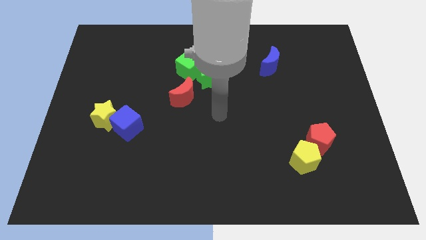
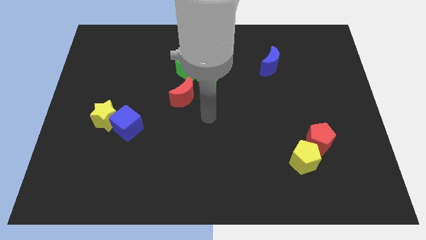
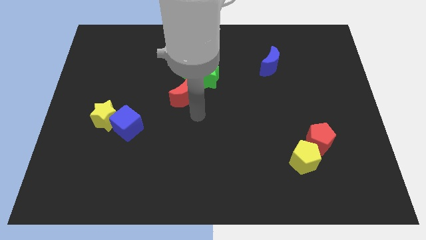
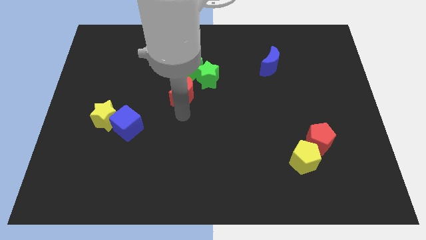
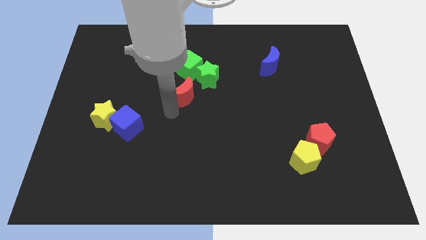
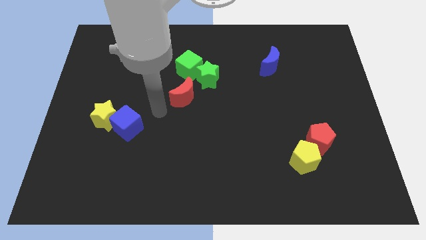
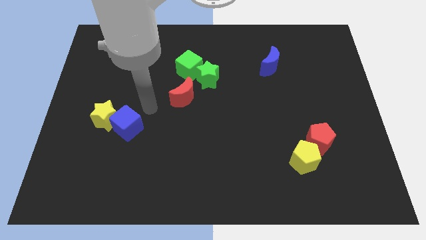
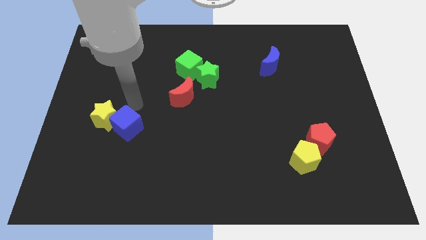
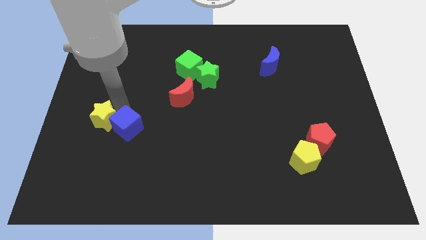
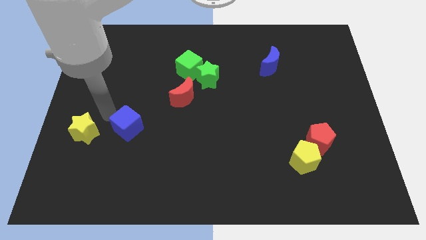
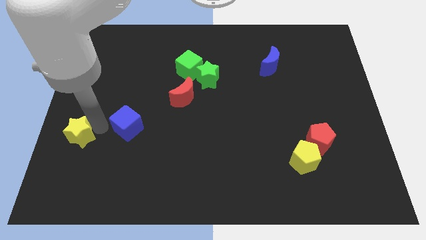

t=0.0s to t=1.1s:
move the blue cube away from the yellow star

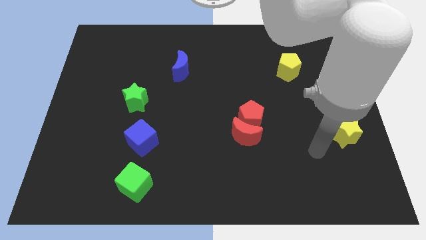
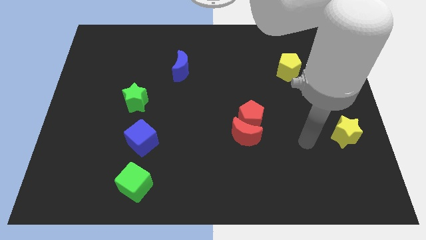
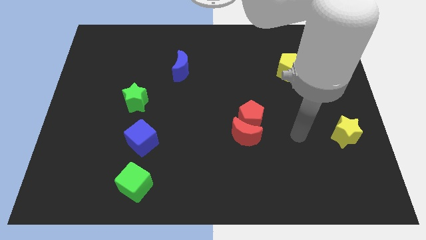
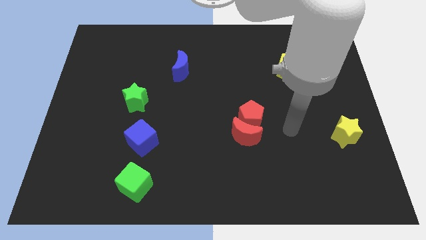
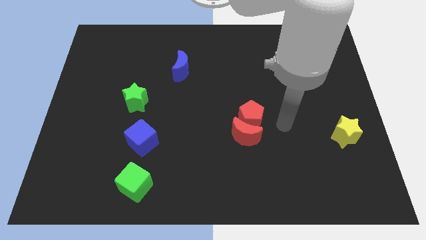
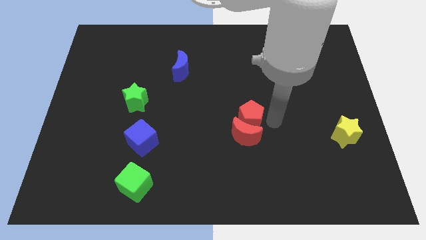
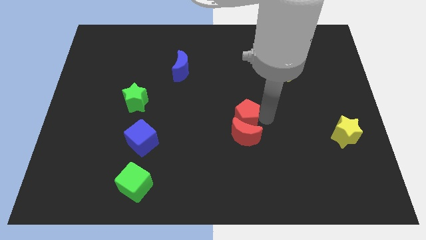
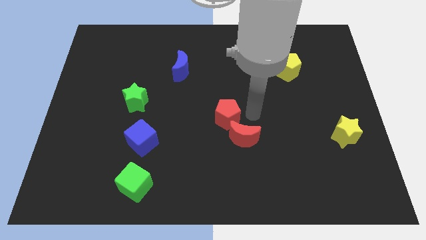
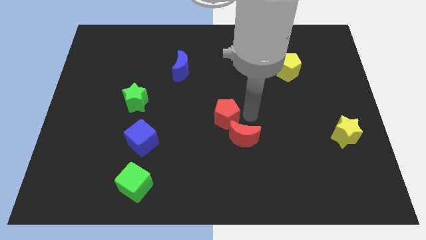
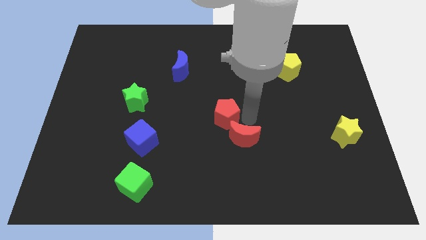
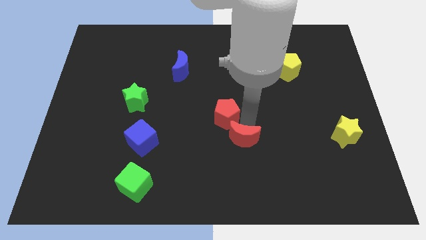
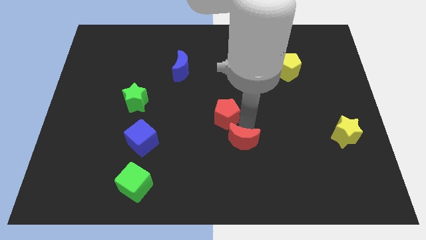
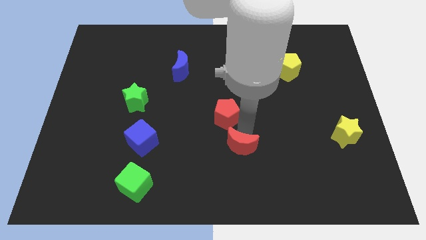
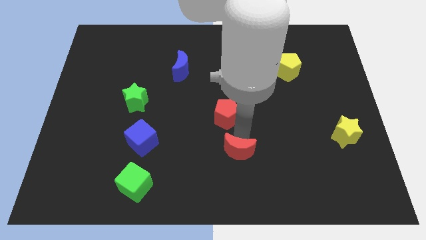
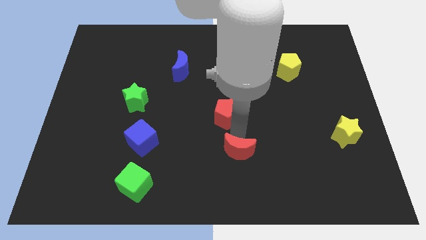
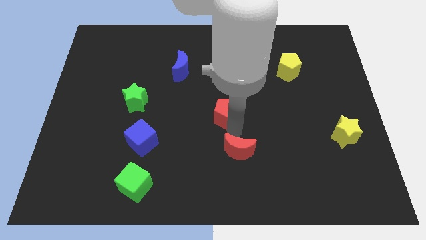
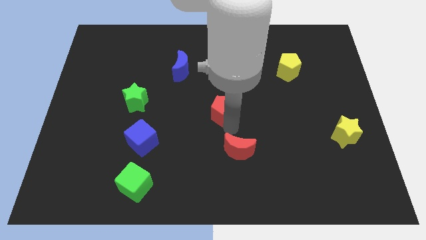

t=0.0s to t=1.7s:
move the red moon away from the red pentagon

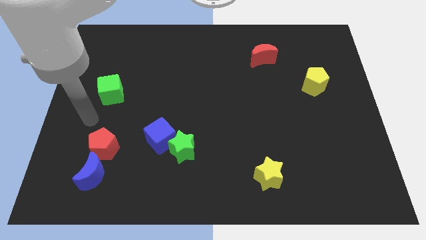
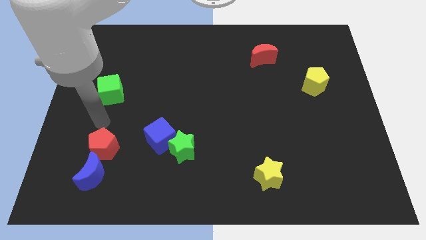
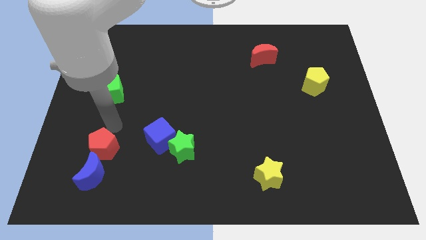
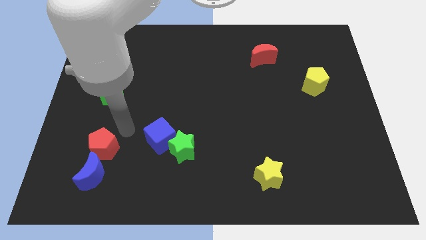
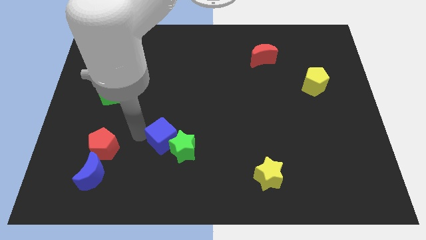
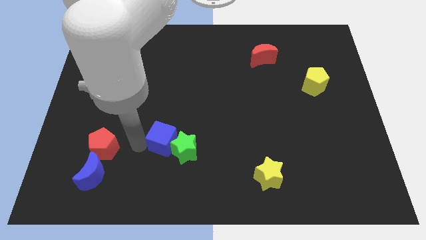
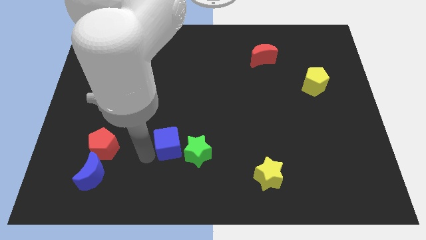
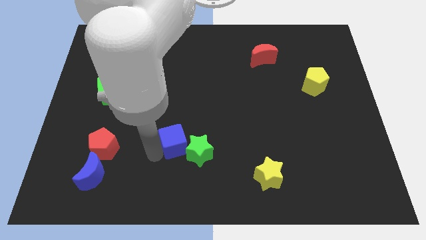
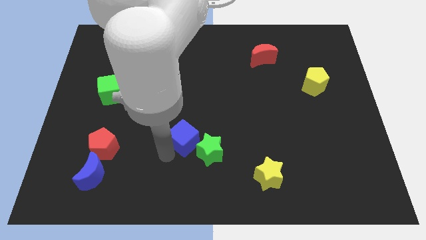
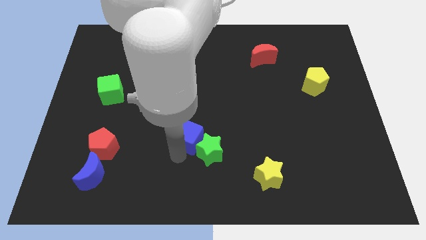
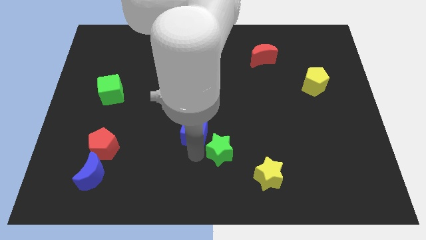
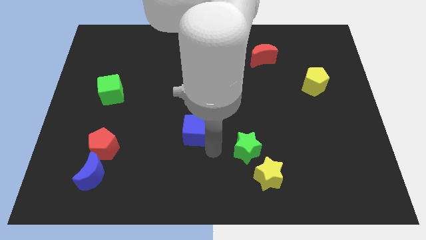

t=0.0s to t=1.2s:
separate the blue cube from the green star

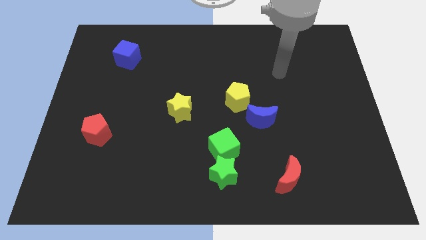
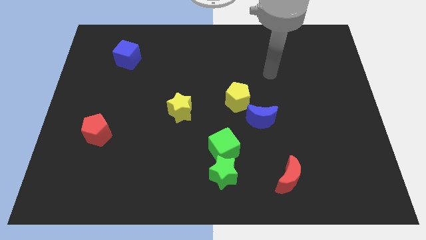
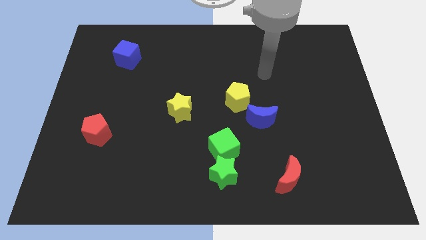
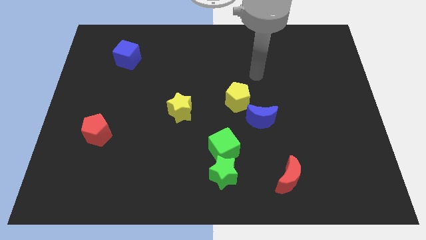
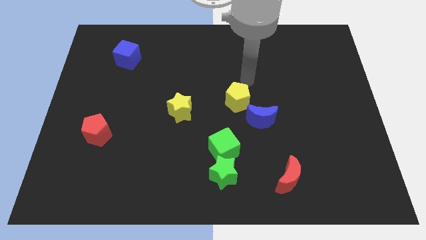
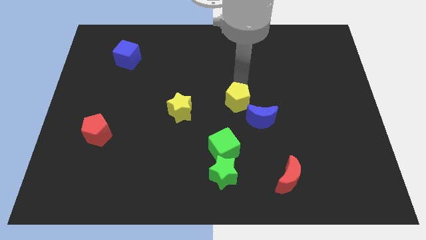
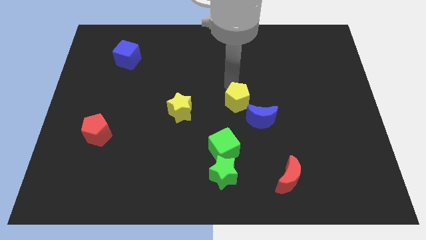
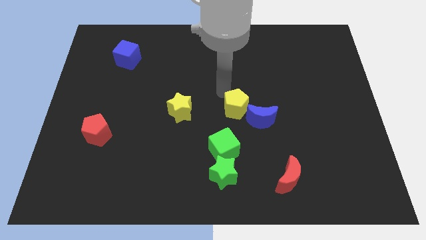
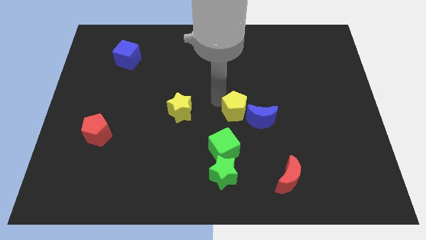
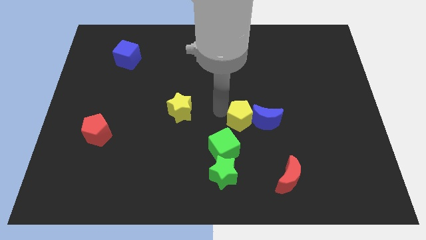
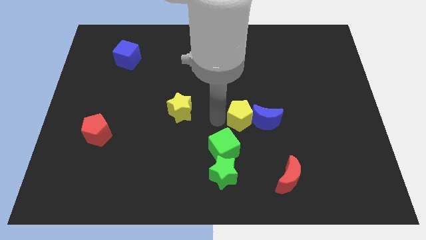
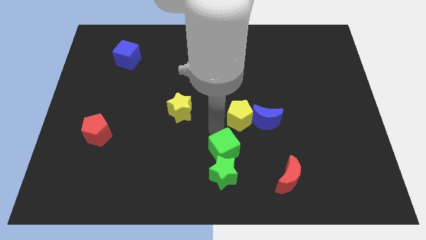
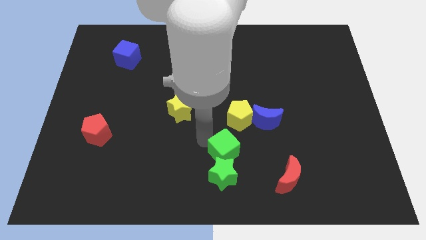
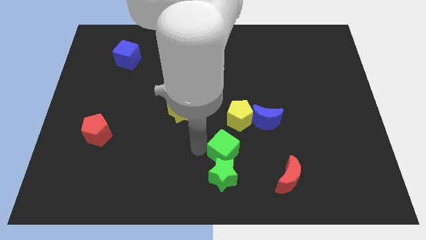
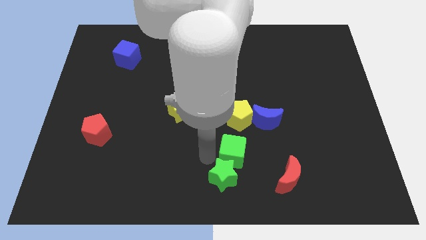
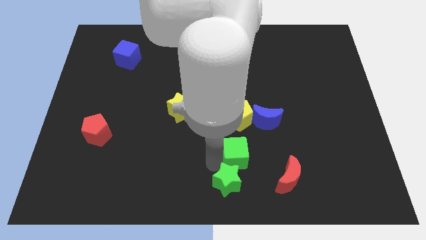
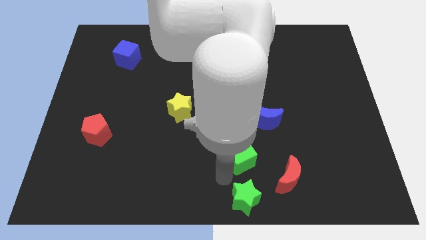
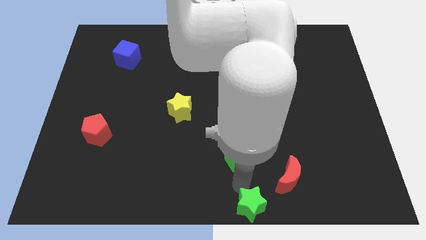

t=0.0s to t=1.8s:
move the green cube away from the green star

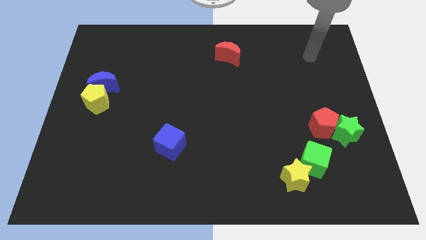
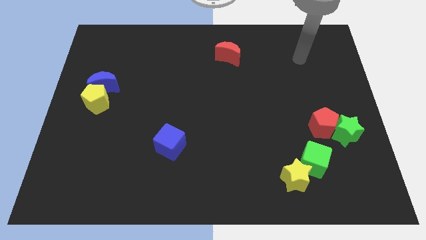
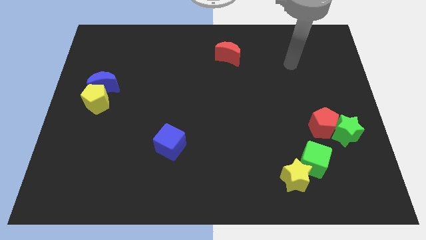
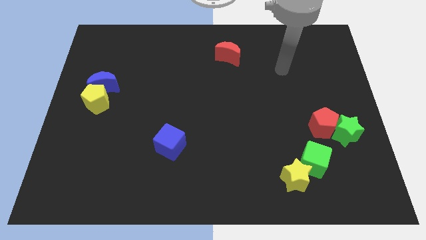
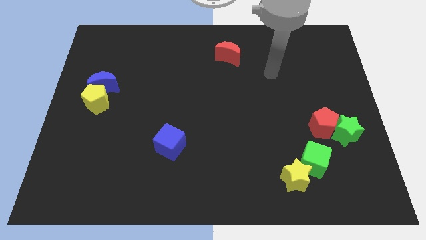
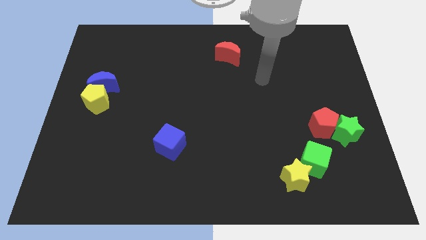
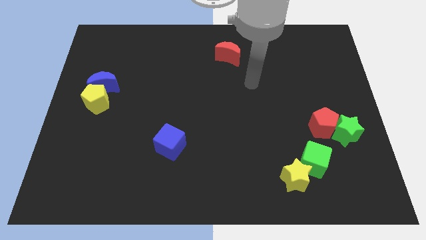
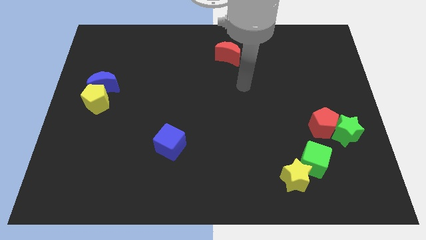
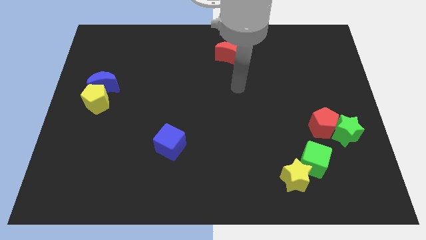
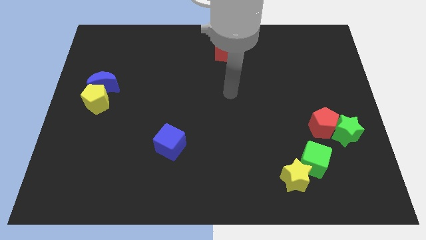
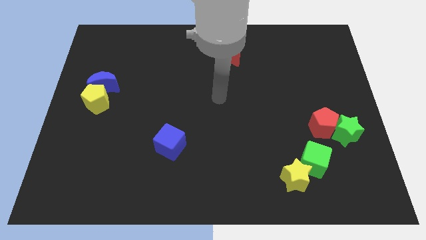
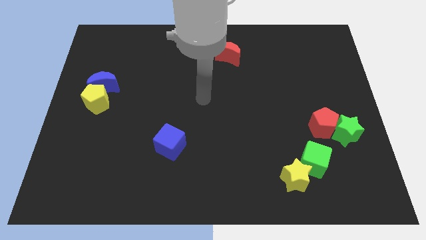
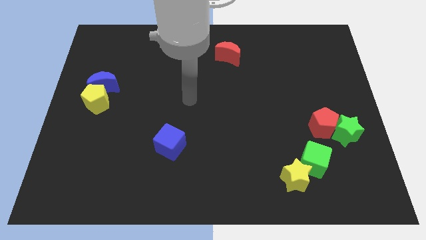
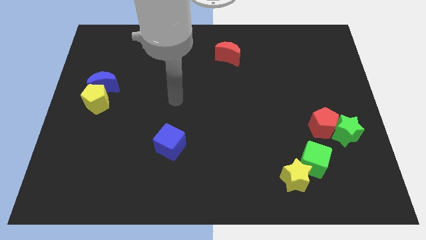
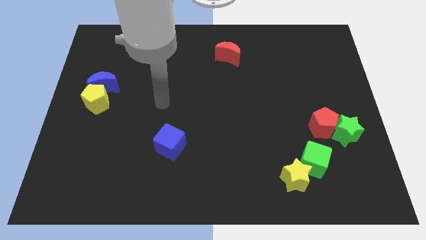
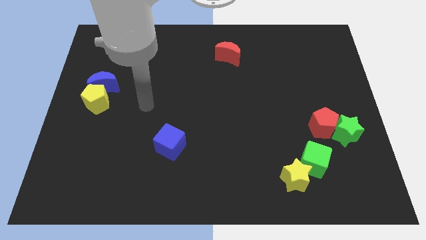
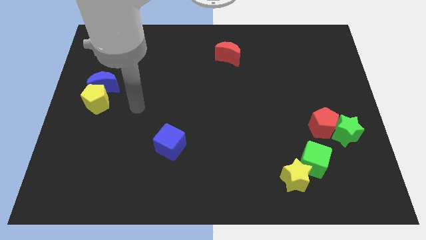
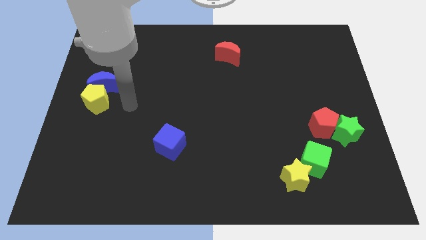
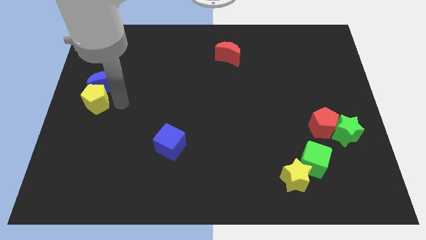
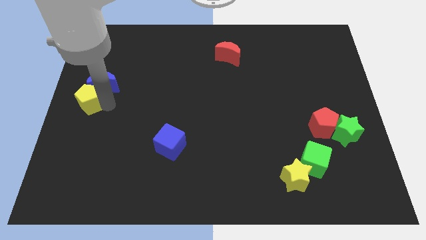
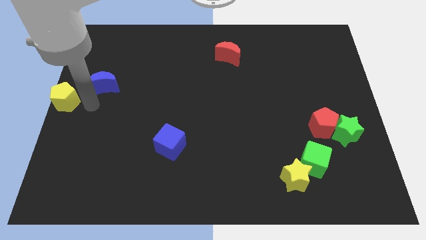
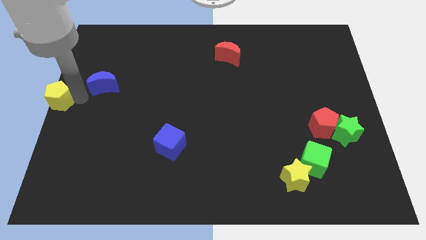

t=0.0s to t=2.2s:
separate the blue moon from the yellow pentagon

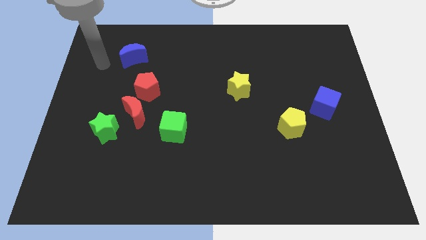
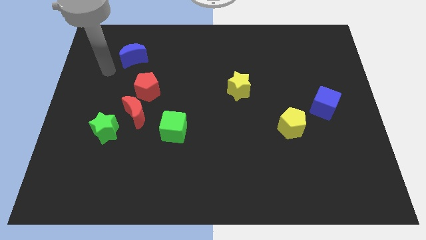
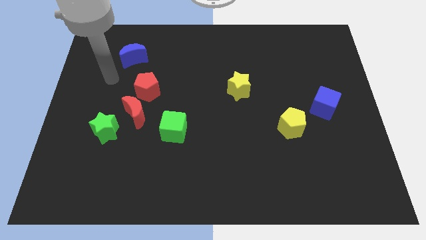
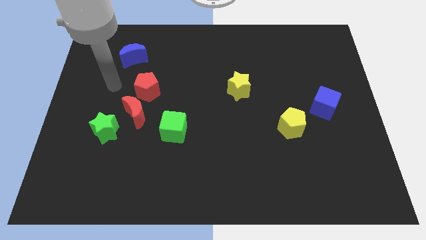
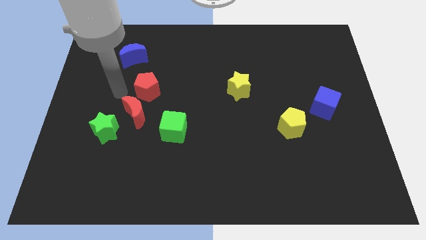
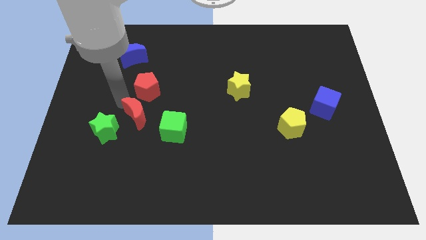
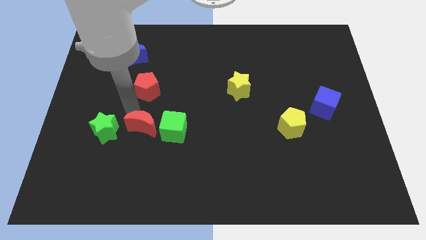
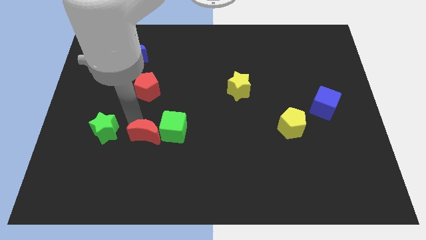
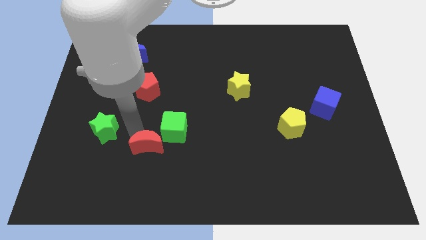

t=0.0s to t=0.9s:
move the green star away from the red moon

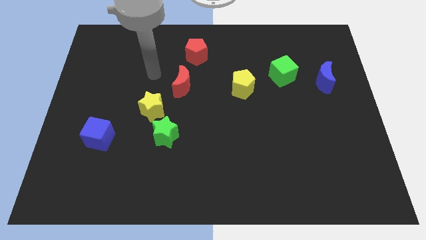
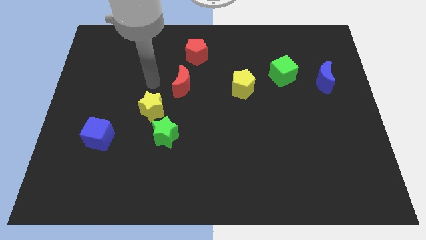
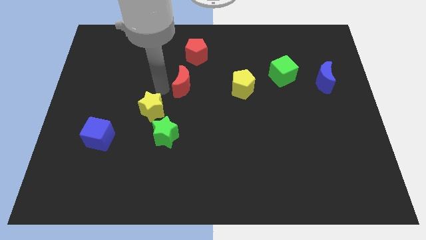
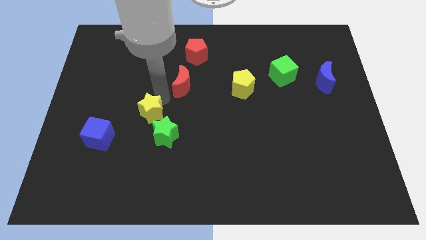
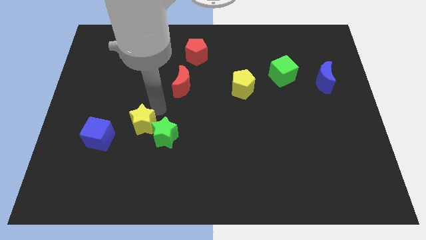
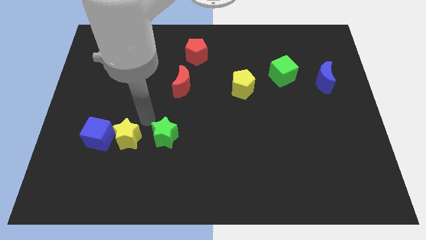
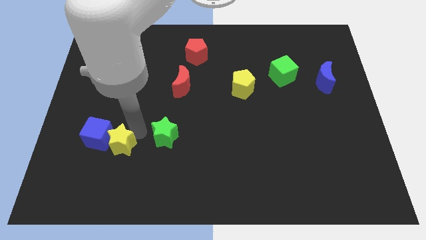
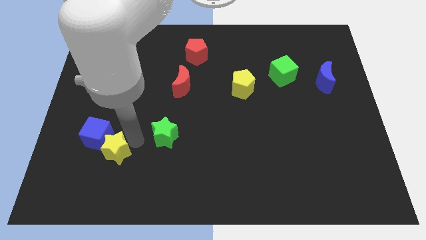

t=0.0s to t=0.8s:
pull the green star apart from the yellow star
